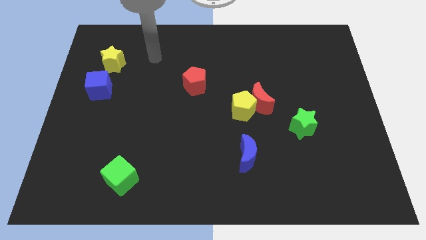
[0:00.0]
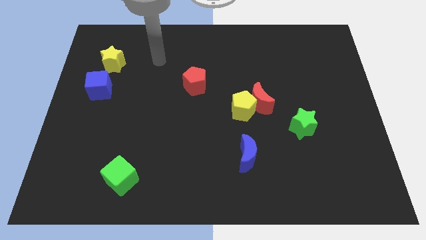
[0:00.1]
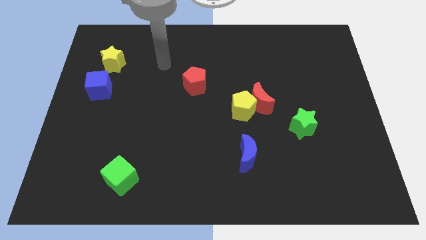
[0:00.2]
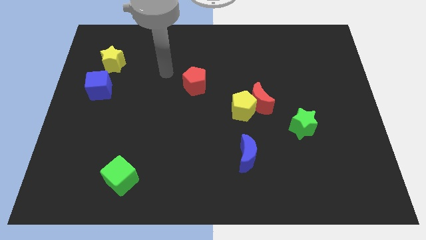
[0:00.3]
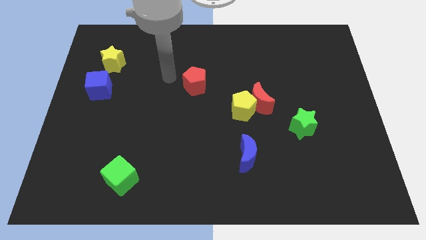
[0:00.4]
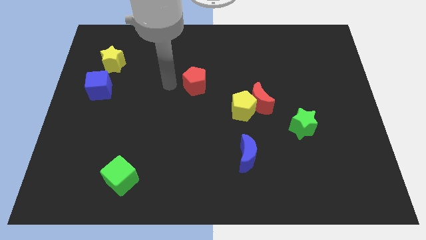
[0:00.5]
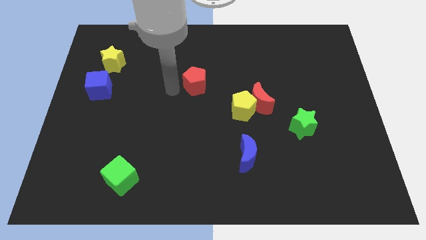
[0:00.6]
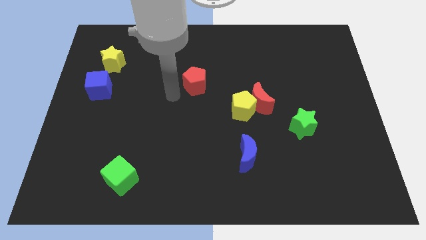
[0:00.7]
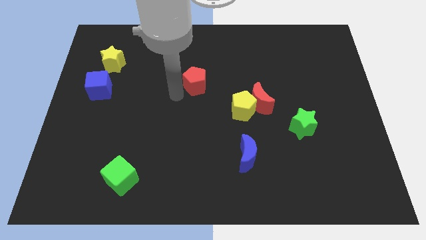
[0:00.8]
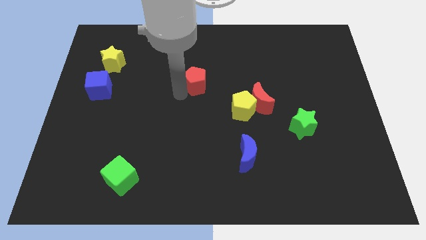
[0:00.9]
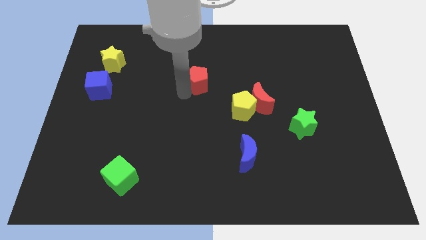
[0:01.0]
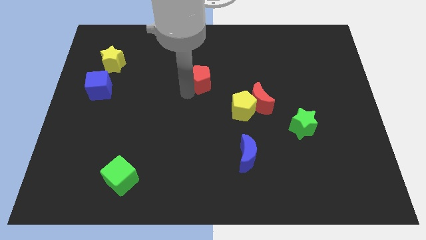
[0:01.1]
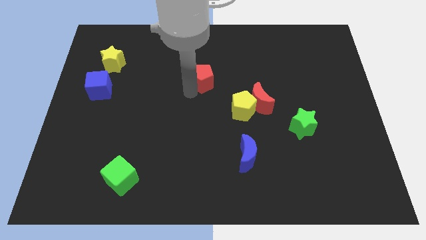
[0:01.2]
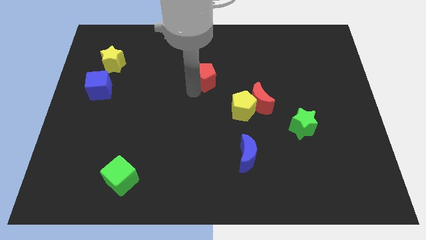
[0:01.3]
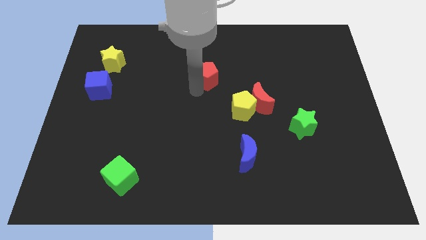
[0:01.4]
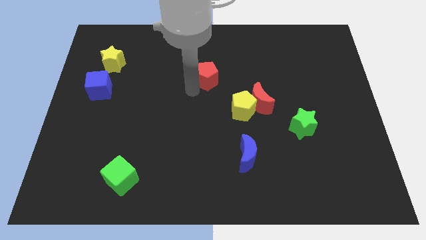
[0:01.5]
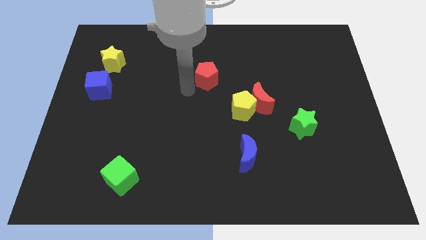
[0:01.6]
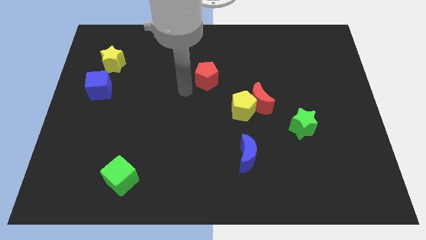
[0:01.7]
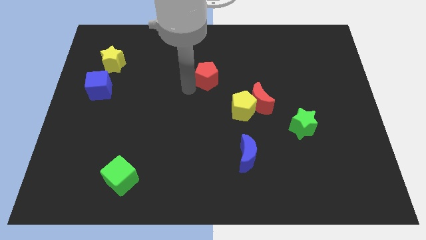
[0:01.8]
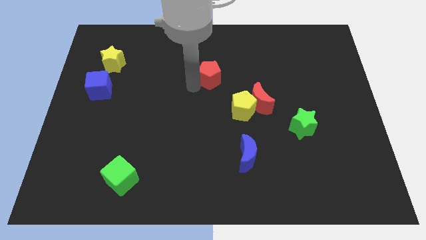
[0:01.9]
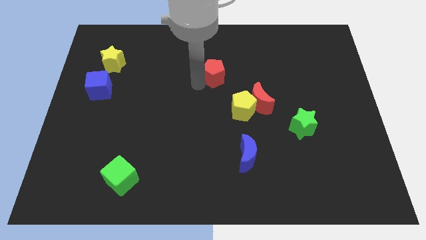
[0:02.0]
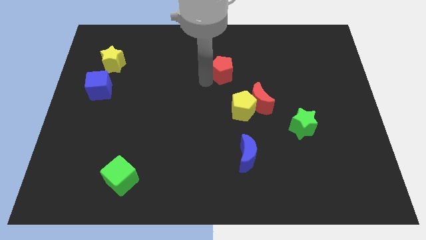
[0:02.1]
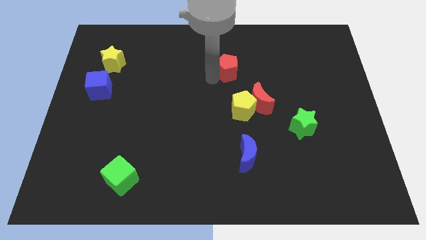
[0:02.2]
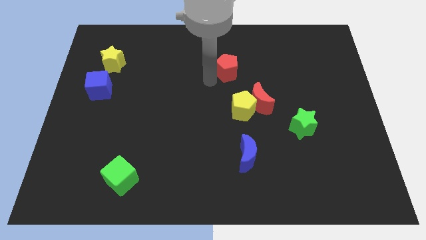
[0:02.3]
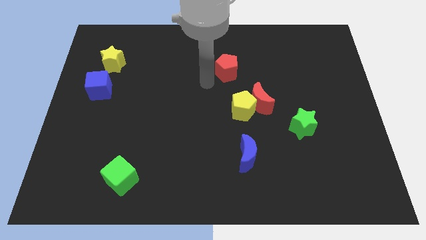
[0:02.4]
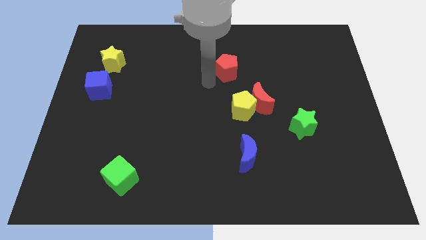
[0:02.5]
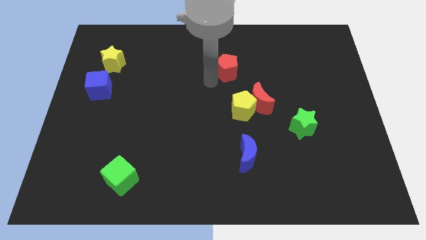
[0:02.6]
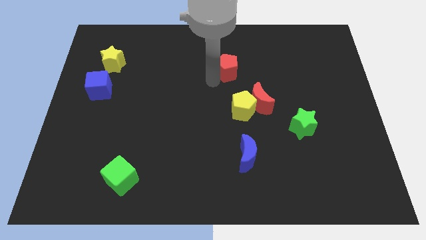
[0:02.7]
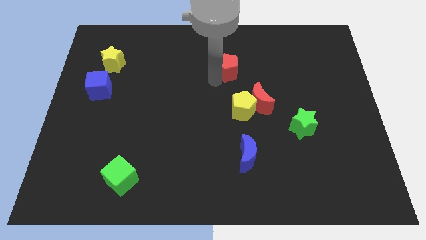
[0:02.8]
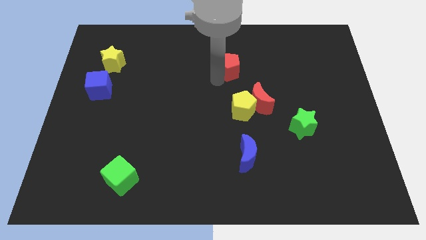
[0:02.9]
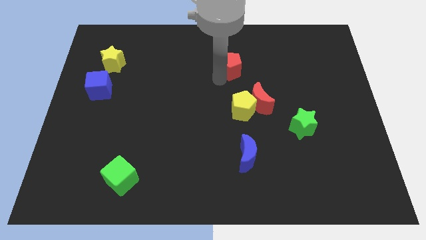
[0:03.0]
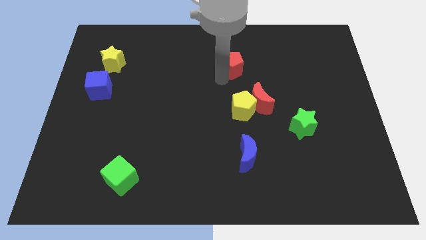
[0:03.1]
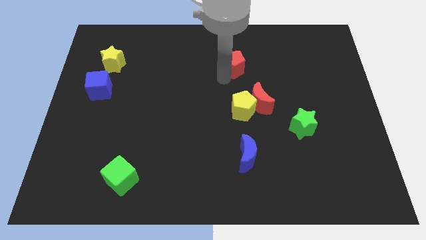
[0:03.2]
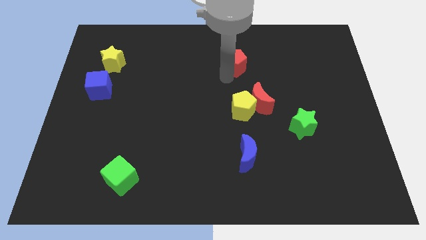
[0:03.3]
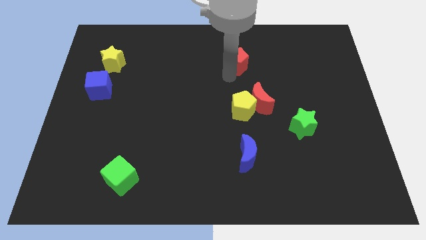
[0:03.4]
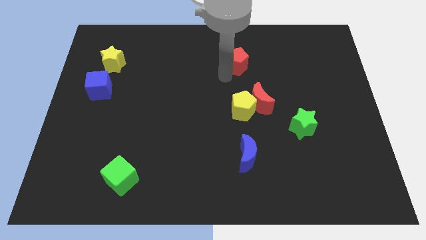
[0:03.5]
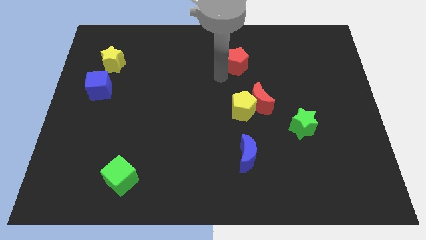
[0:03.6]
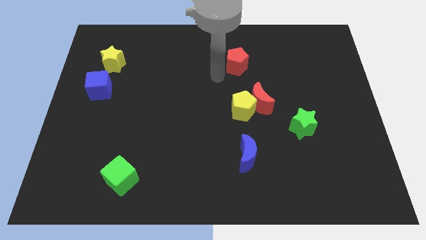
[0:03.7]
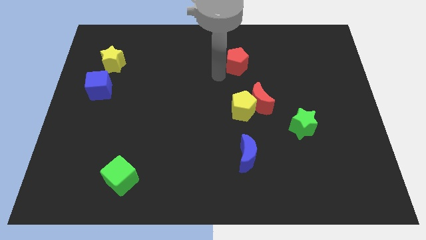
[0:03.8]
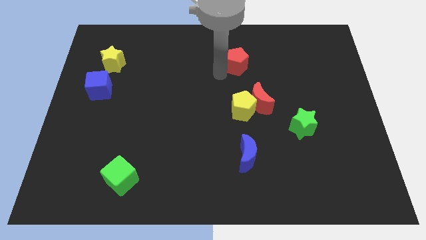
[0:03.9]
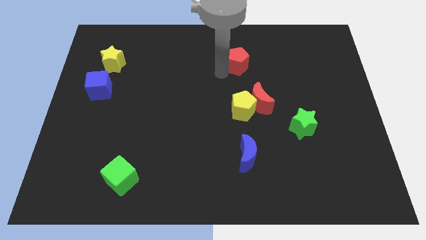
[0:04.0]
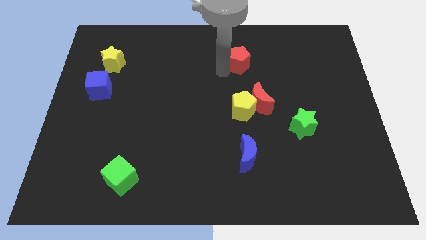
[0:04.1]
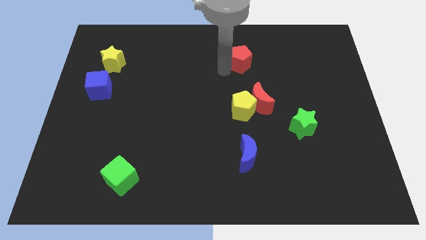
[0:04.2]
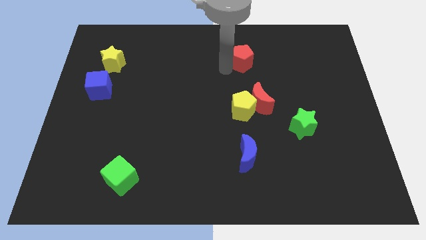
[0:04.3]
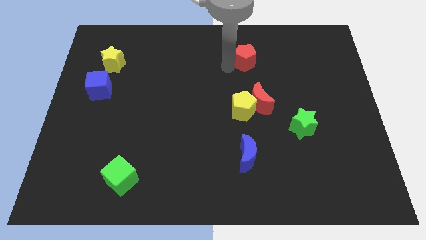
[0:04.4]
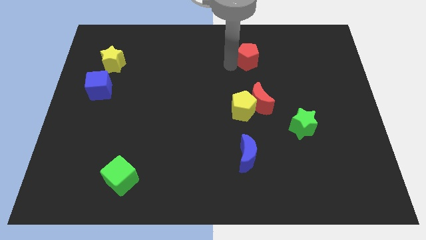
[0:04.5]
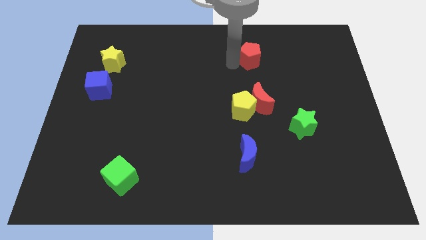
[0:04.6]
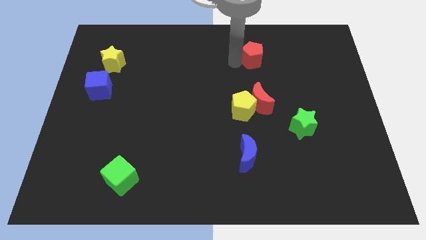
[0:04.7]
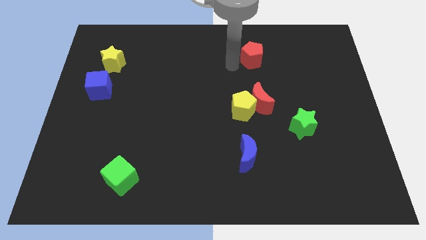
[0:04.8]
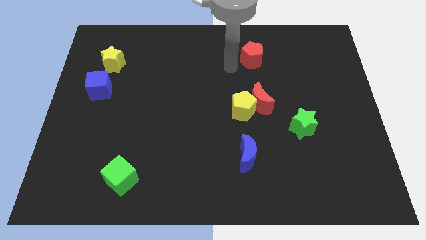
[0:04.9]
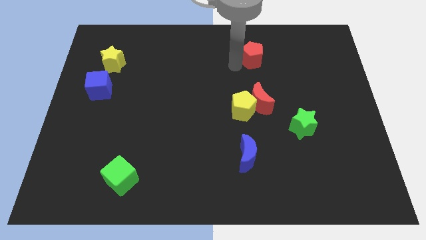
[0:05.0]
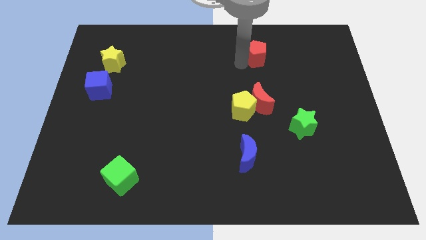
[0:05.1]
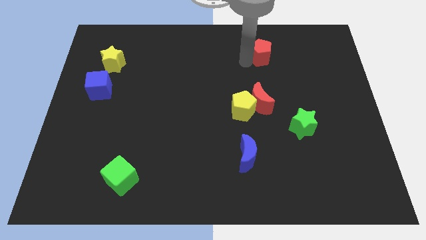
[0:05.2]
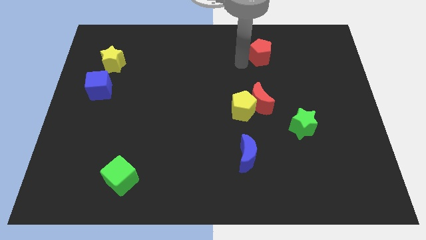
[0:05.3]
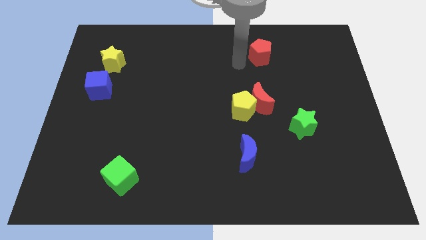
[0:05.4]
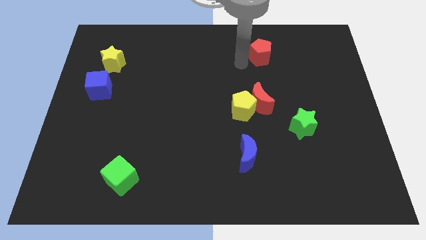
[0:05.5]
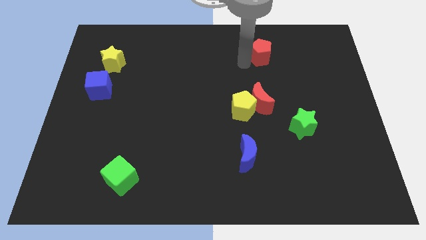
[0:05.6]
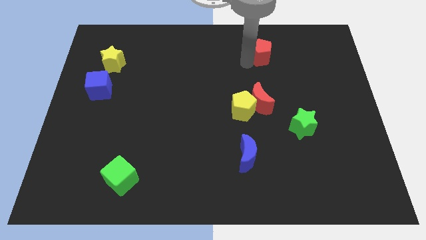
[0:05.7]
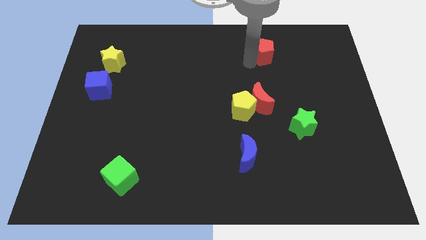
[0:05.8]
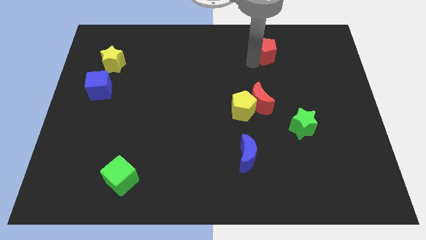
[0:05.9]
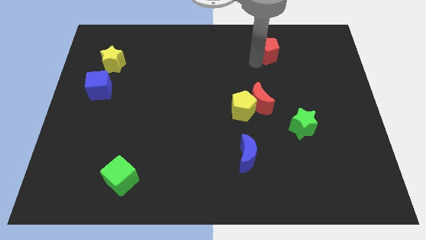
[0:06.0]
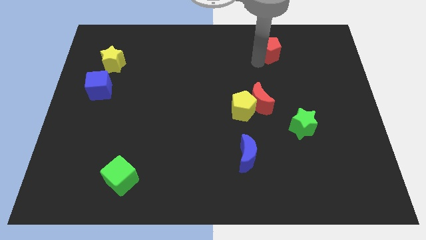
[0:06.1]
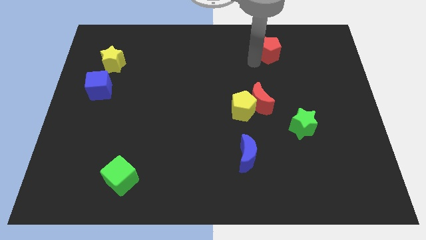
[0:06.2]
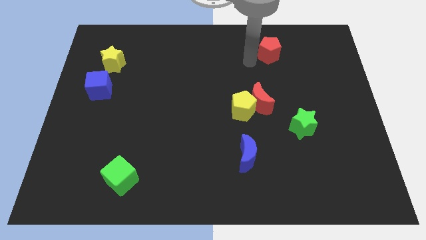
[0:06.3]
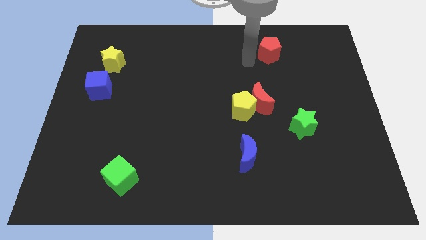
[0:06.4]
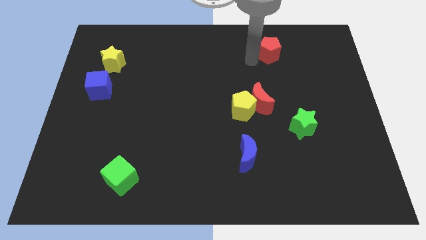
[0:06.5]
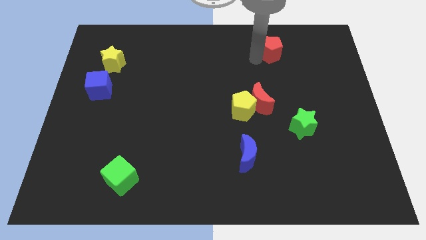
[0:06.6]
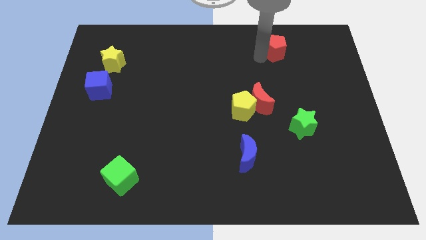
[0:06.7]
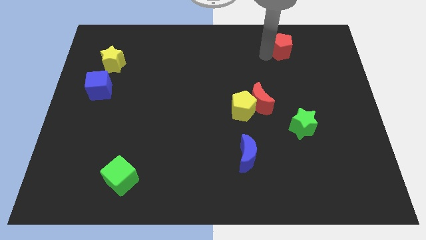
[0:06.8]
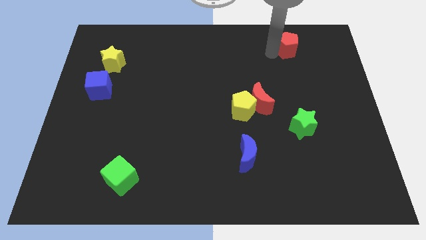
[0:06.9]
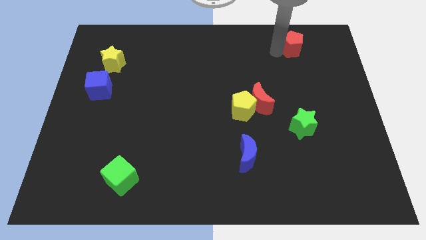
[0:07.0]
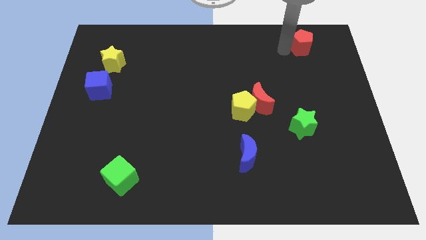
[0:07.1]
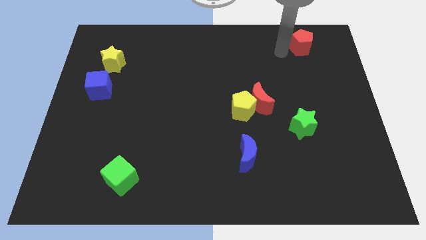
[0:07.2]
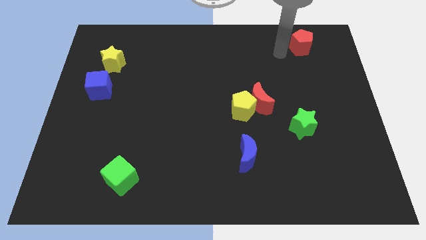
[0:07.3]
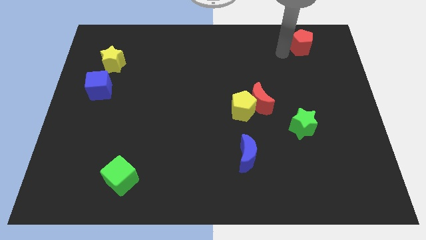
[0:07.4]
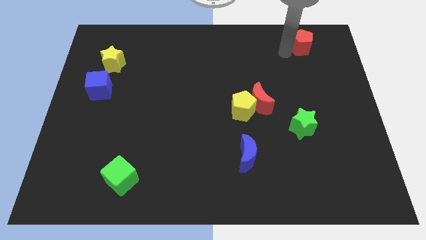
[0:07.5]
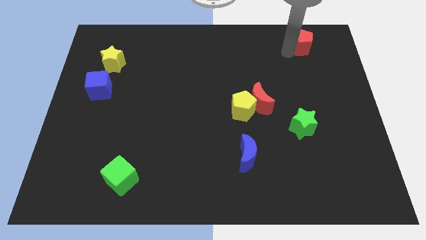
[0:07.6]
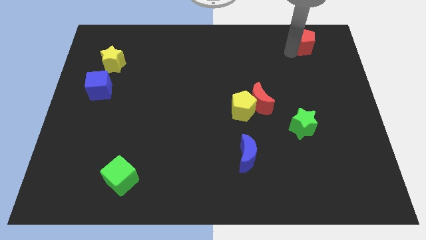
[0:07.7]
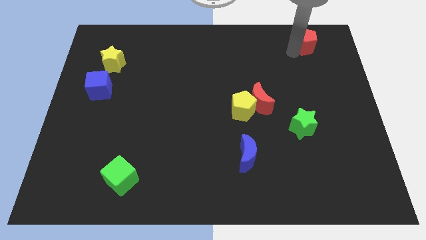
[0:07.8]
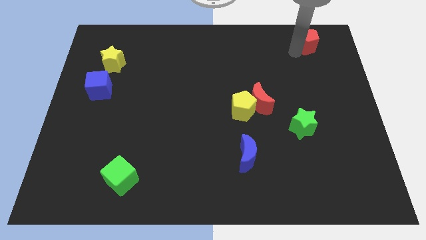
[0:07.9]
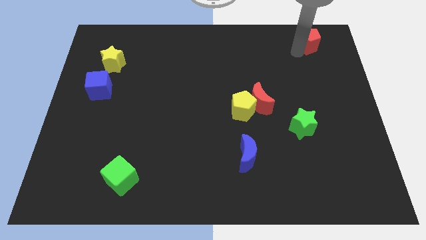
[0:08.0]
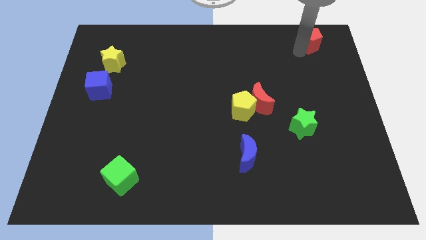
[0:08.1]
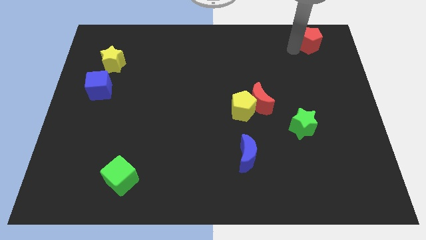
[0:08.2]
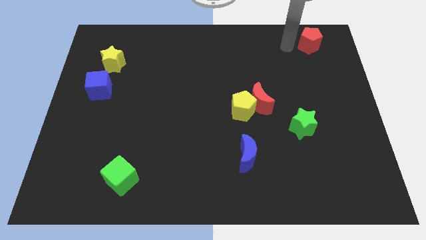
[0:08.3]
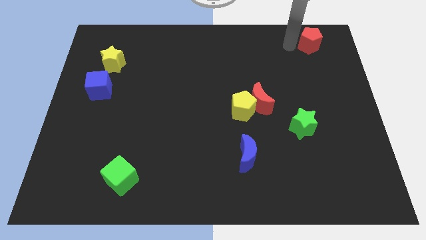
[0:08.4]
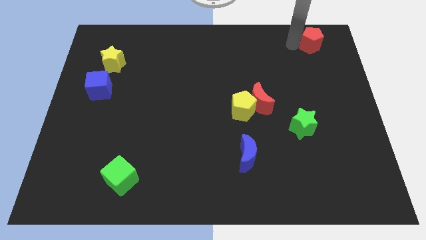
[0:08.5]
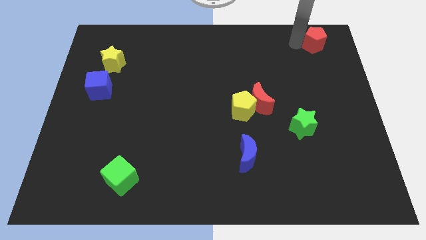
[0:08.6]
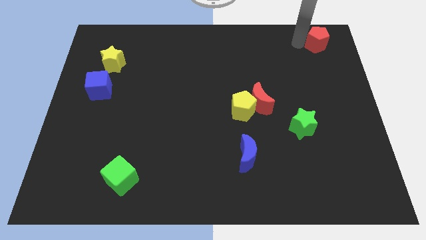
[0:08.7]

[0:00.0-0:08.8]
slide the red pentagon to the top right
